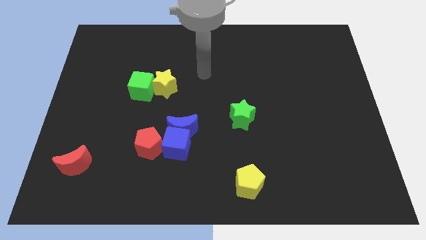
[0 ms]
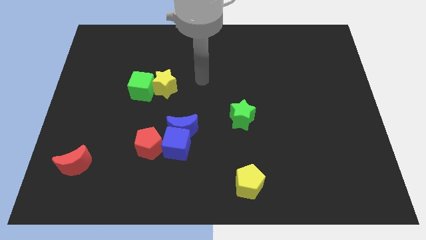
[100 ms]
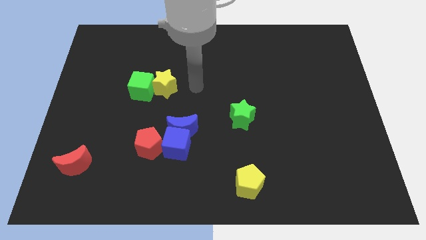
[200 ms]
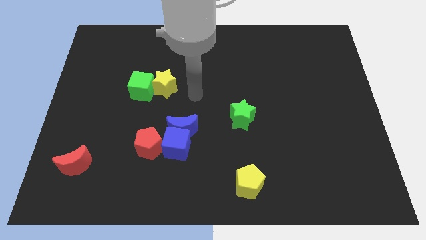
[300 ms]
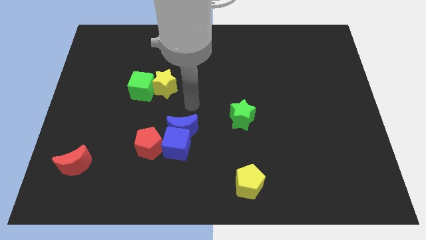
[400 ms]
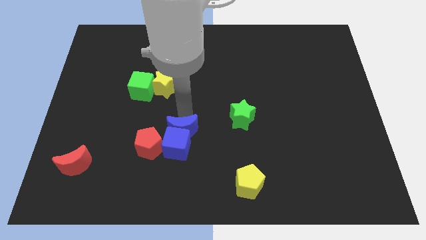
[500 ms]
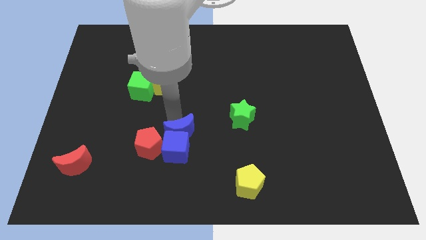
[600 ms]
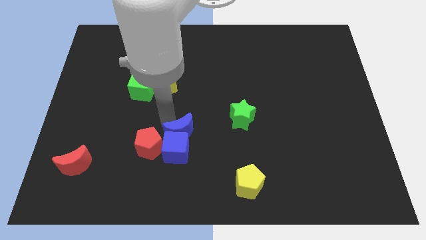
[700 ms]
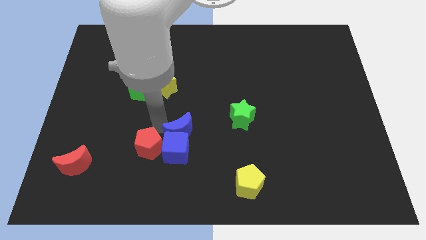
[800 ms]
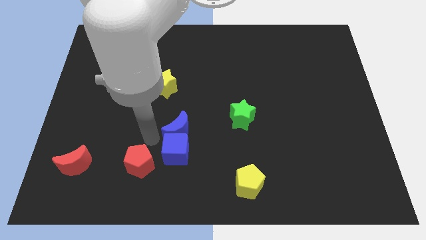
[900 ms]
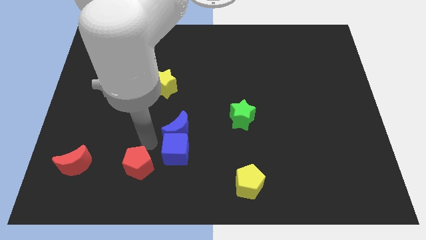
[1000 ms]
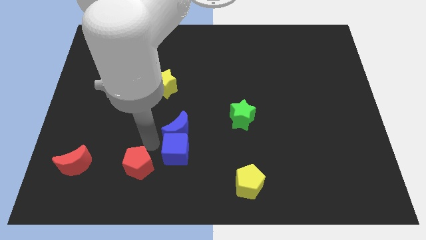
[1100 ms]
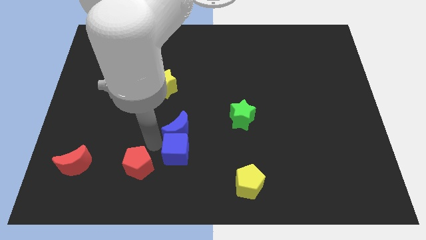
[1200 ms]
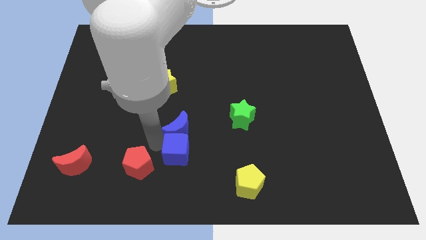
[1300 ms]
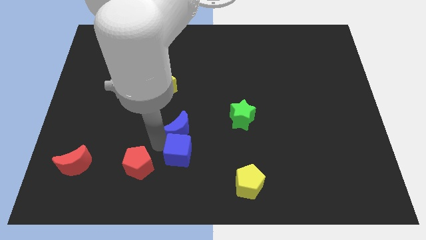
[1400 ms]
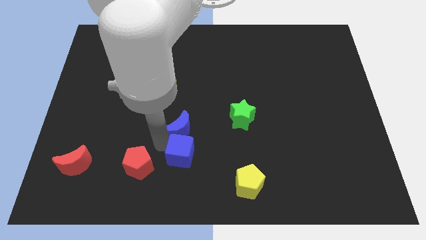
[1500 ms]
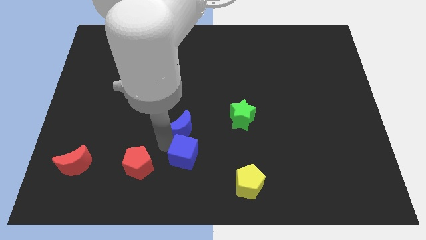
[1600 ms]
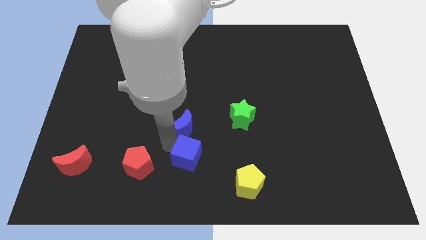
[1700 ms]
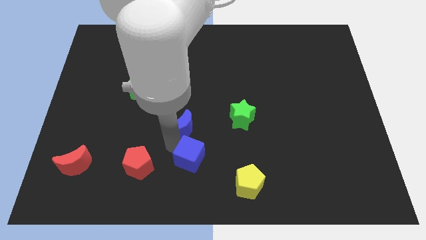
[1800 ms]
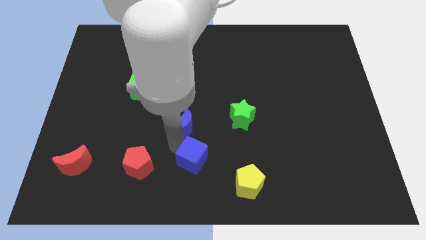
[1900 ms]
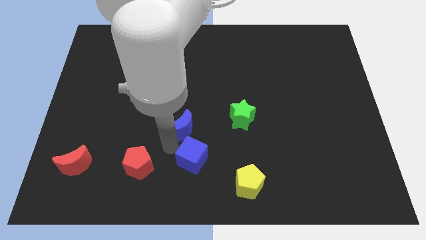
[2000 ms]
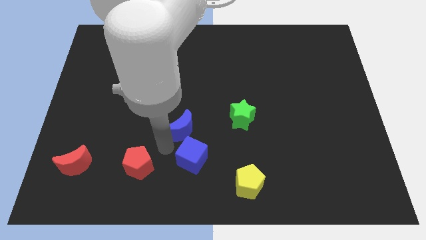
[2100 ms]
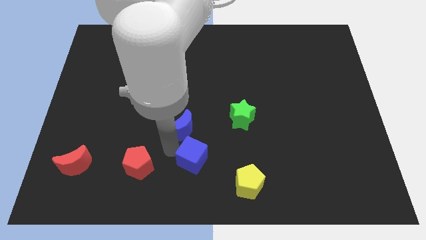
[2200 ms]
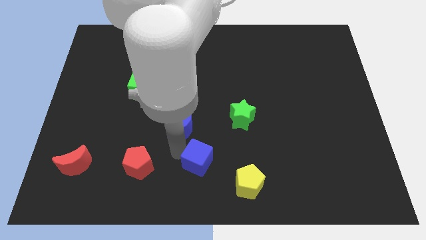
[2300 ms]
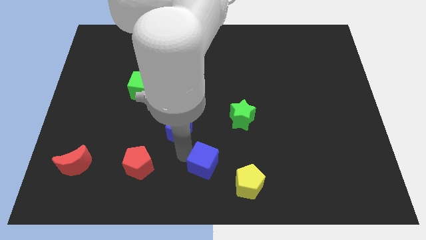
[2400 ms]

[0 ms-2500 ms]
pull the blue cube apart from the blue moon and red pentagon

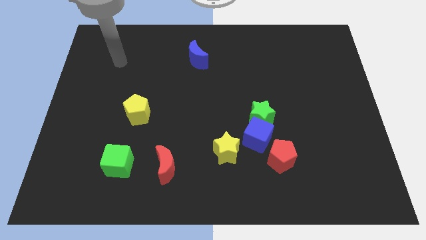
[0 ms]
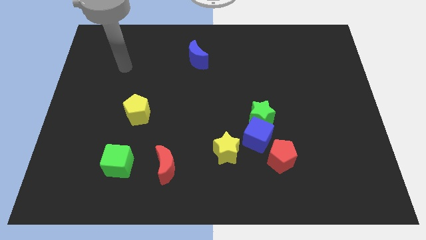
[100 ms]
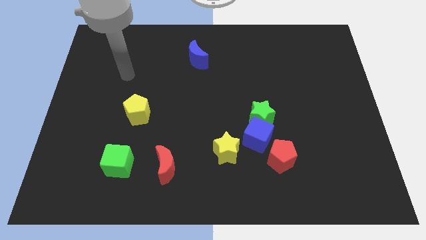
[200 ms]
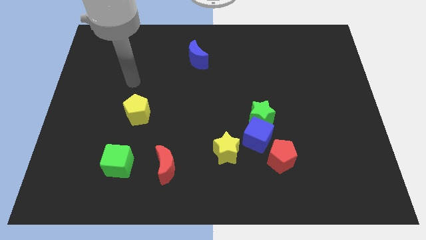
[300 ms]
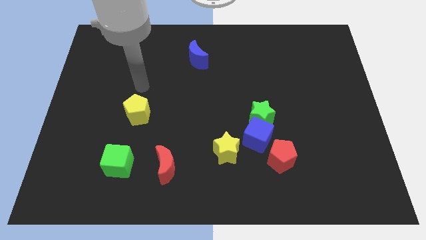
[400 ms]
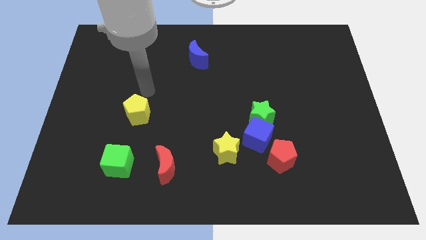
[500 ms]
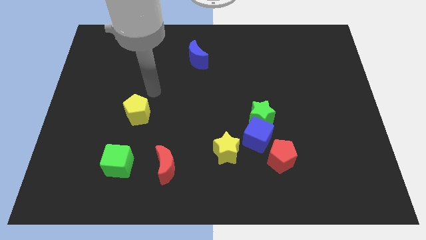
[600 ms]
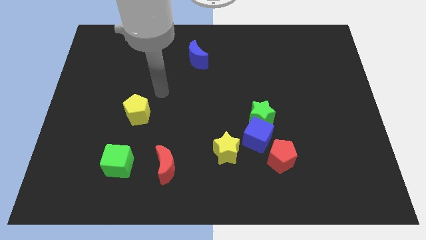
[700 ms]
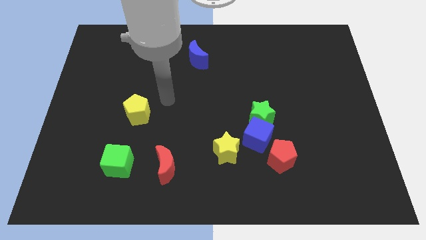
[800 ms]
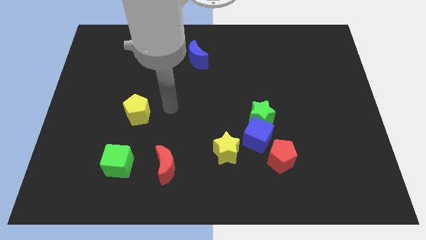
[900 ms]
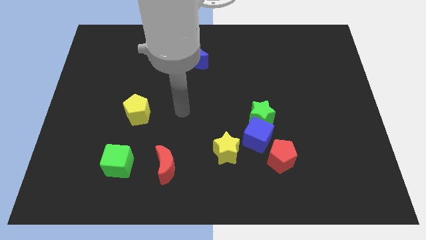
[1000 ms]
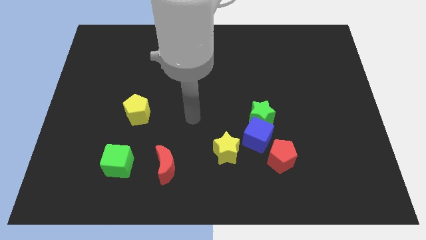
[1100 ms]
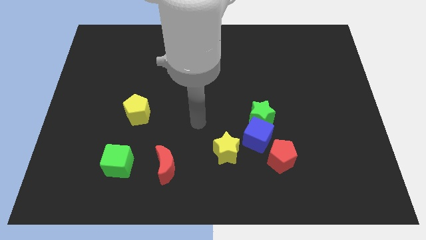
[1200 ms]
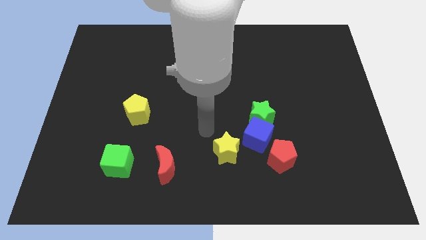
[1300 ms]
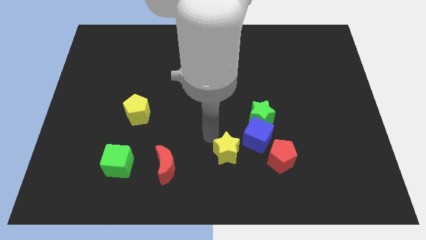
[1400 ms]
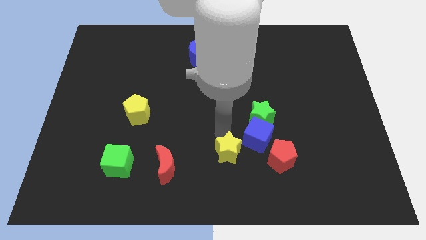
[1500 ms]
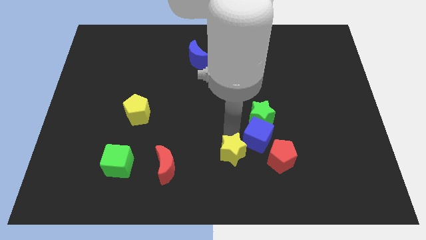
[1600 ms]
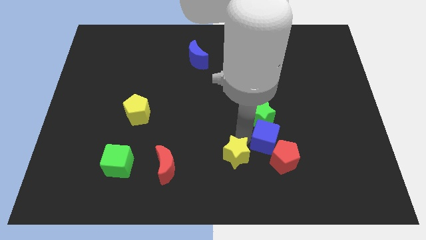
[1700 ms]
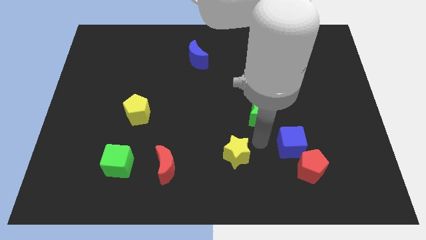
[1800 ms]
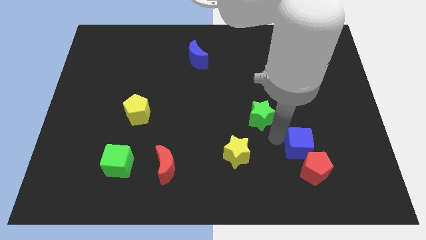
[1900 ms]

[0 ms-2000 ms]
separate the green star from the blue cube

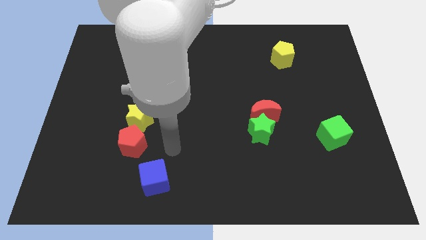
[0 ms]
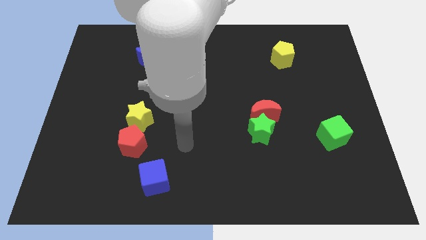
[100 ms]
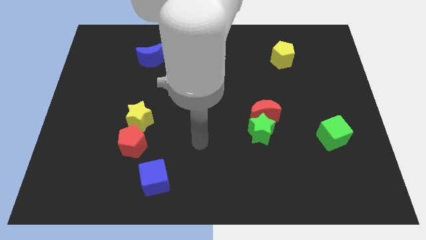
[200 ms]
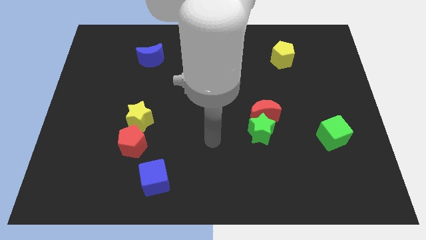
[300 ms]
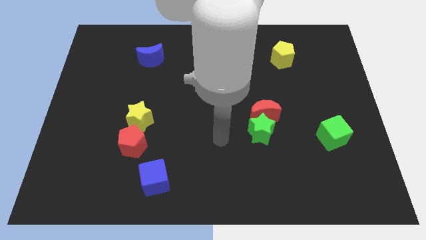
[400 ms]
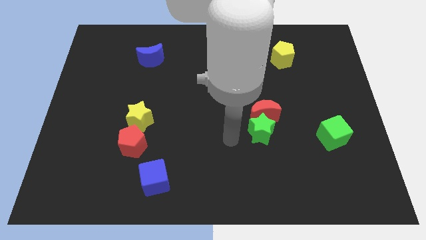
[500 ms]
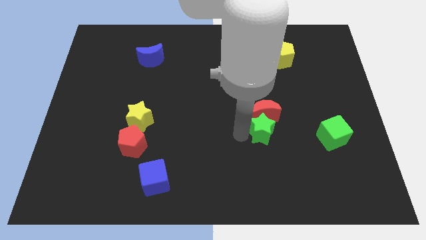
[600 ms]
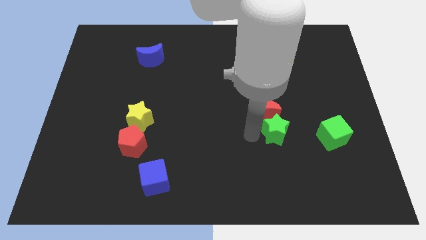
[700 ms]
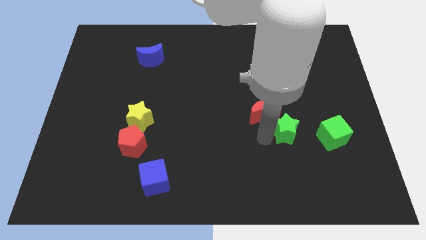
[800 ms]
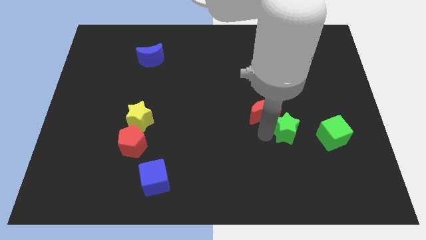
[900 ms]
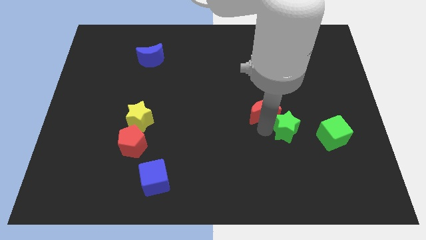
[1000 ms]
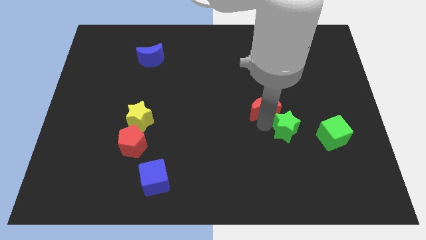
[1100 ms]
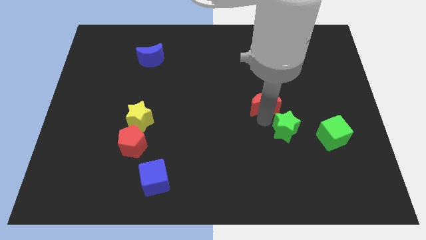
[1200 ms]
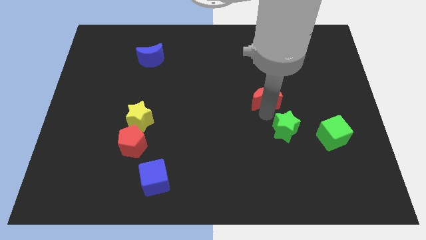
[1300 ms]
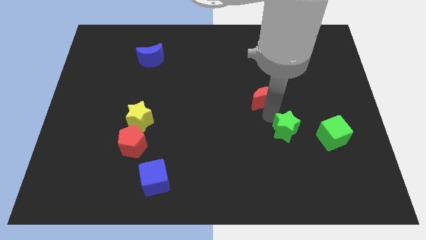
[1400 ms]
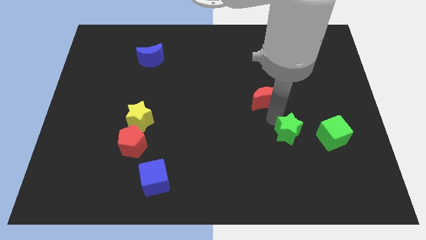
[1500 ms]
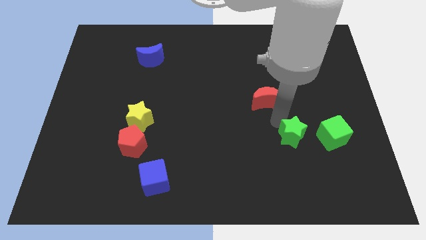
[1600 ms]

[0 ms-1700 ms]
separate the red moon from the green star

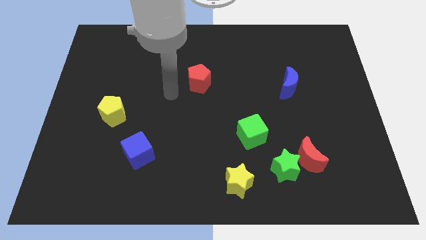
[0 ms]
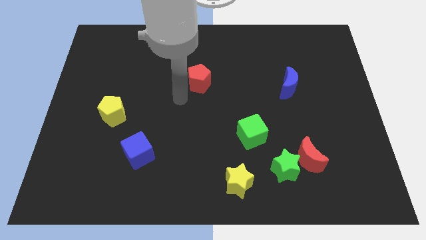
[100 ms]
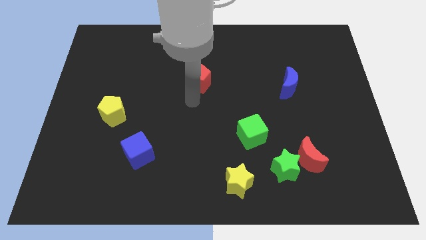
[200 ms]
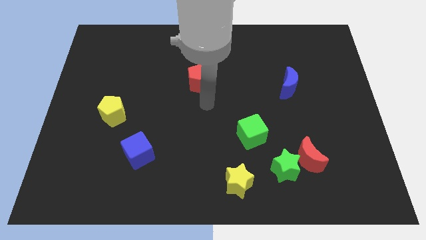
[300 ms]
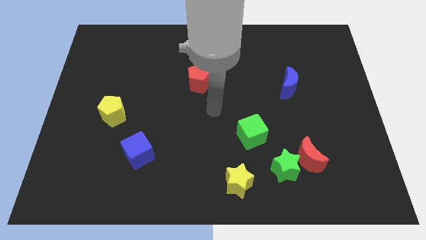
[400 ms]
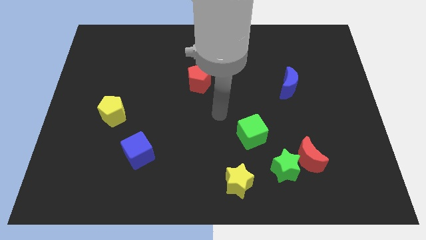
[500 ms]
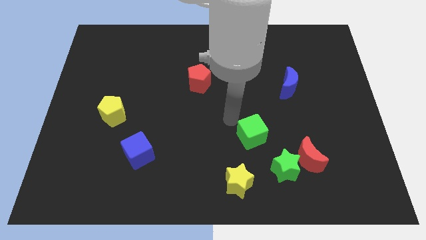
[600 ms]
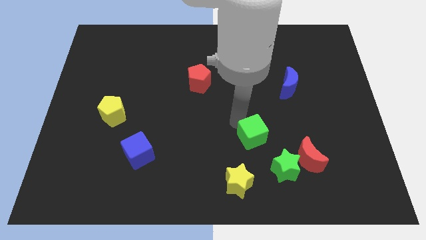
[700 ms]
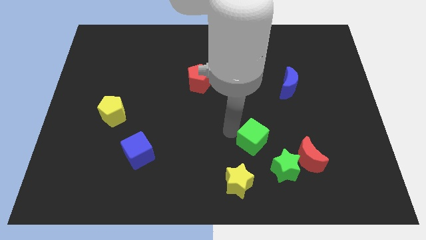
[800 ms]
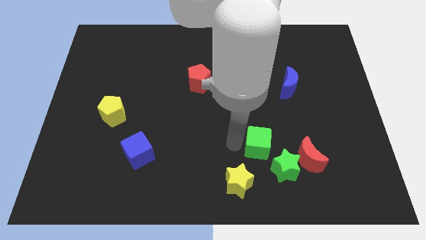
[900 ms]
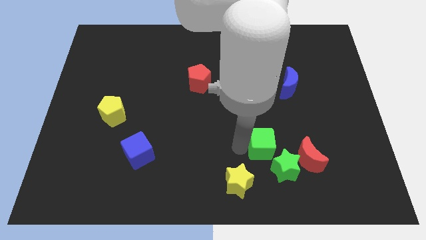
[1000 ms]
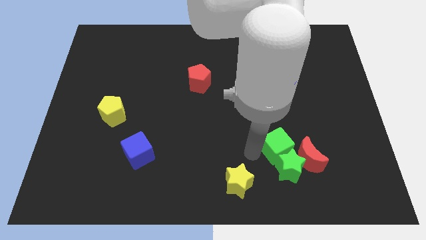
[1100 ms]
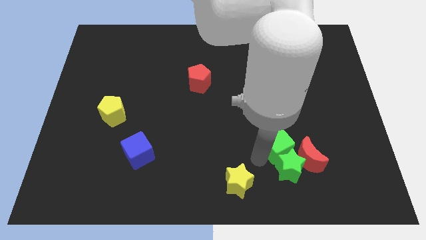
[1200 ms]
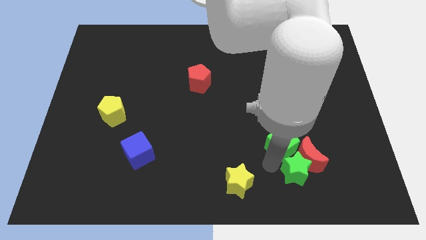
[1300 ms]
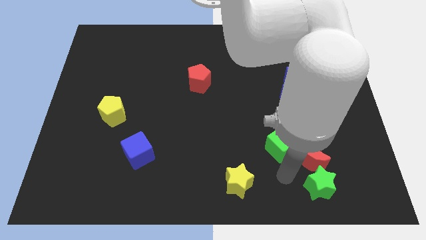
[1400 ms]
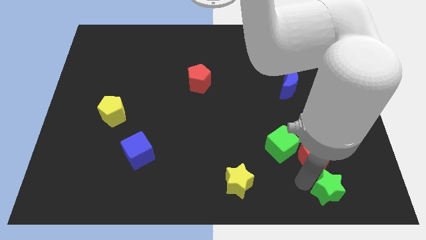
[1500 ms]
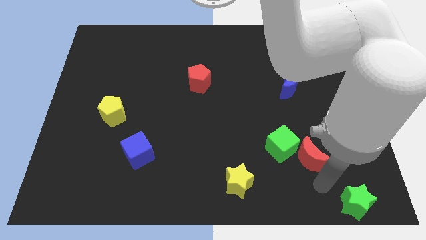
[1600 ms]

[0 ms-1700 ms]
move the red moon away from the green star

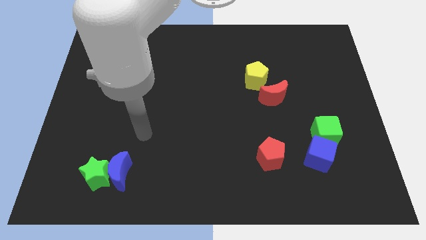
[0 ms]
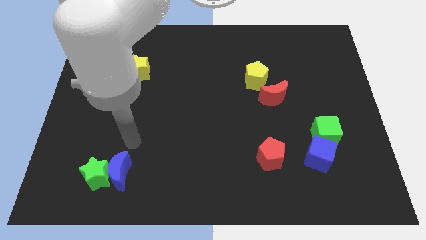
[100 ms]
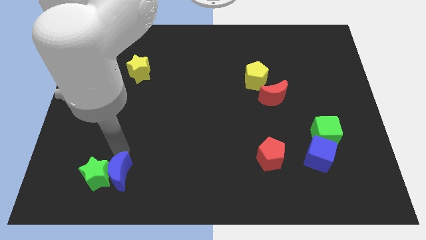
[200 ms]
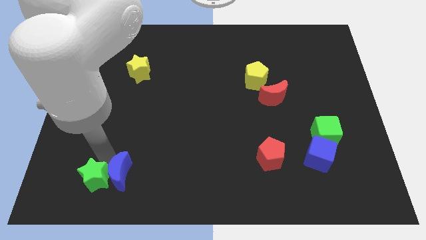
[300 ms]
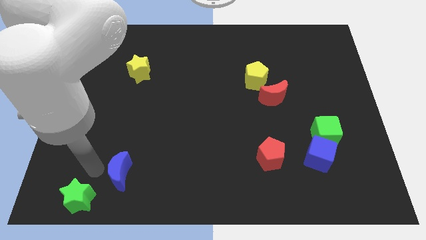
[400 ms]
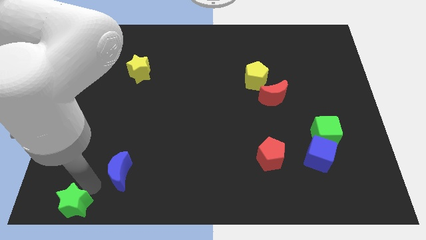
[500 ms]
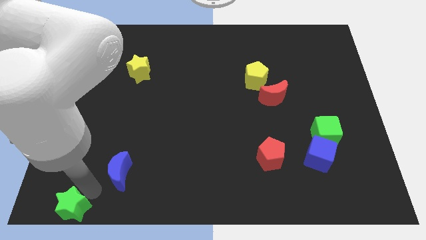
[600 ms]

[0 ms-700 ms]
separate the blue moon from the green star

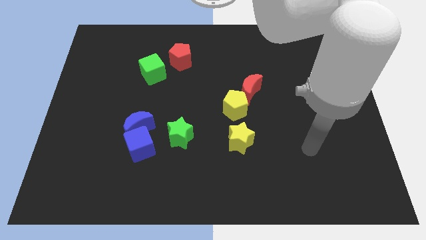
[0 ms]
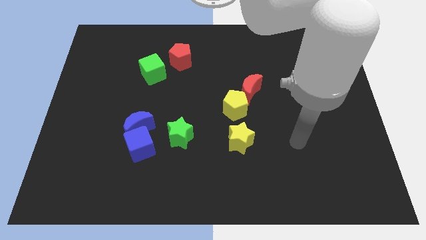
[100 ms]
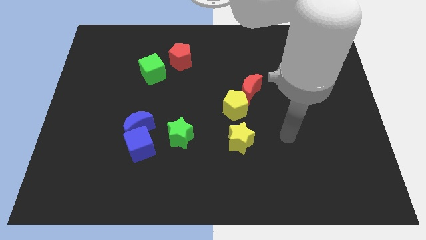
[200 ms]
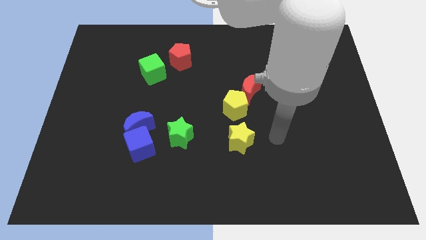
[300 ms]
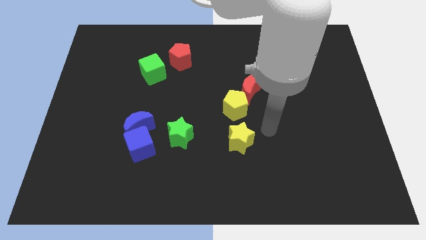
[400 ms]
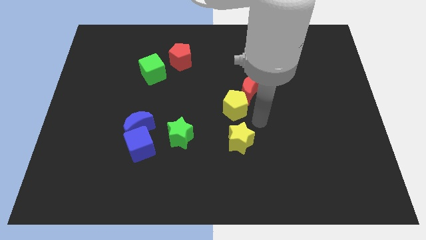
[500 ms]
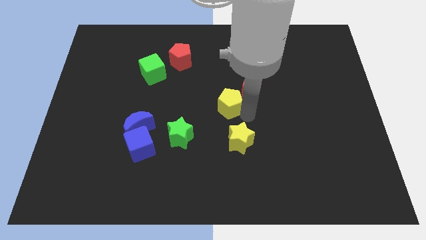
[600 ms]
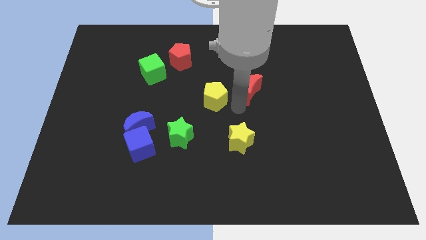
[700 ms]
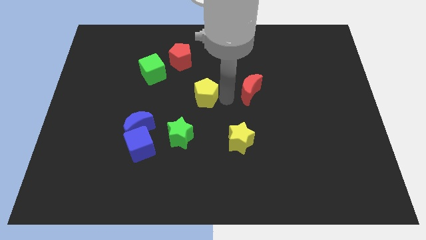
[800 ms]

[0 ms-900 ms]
separate the red moon from the yellow pentagon
